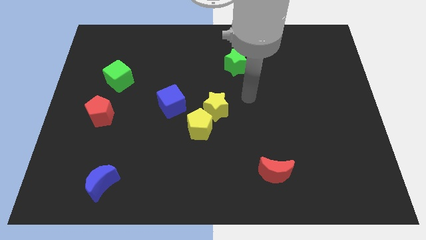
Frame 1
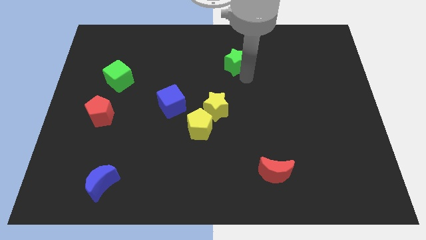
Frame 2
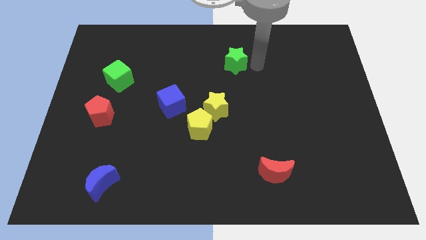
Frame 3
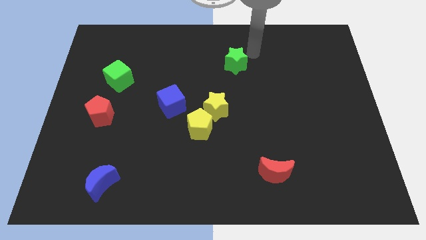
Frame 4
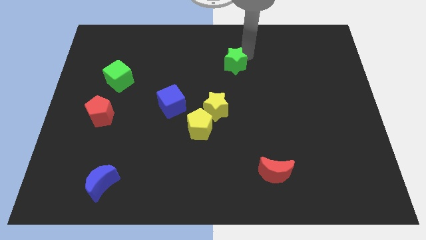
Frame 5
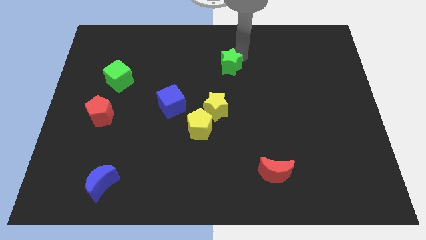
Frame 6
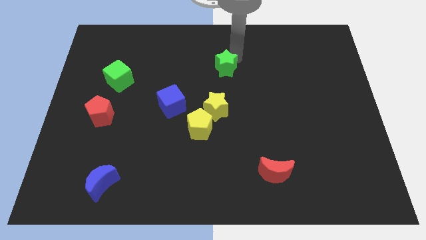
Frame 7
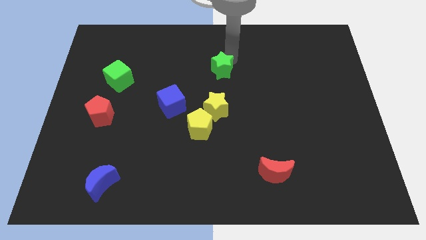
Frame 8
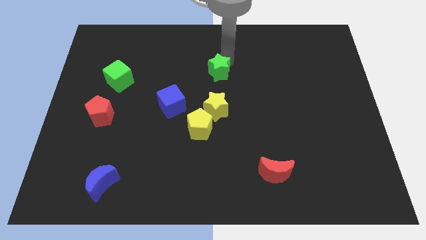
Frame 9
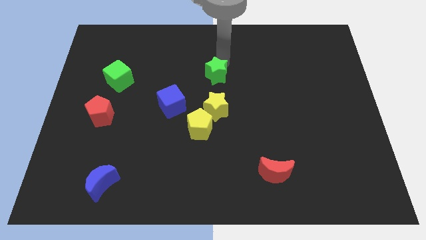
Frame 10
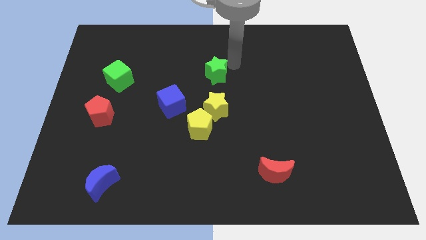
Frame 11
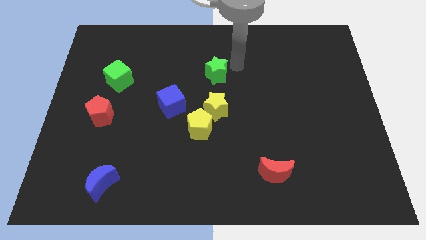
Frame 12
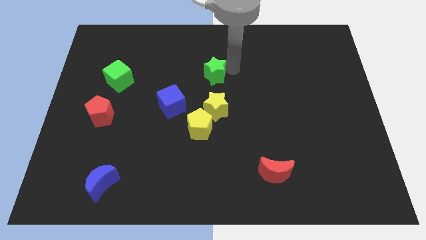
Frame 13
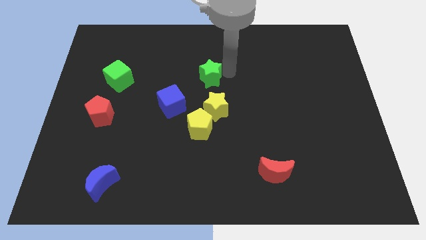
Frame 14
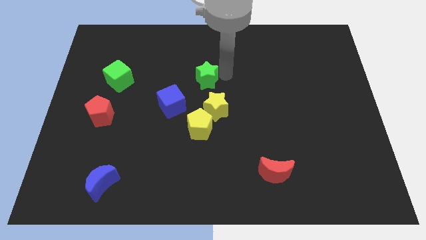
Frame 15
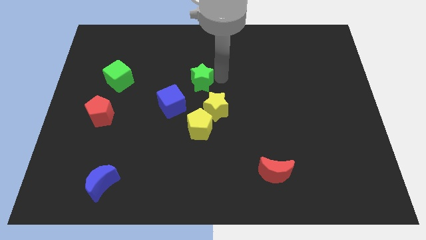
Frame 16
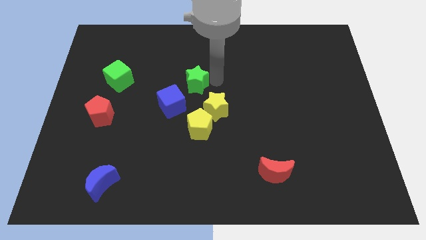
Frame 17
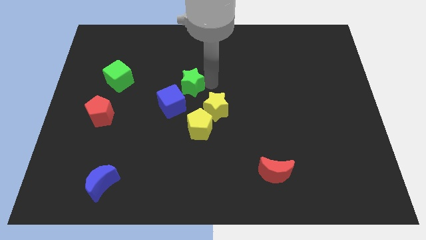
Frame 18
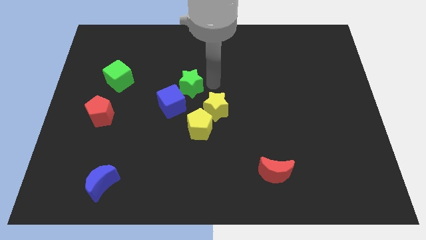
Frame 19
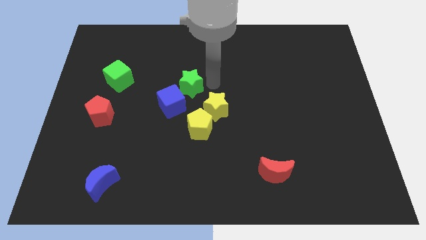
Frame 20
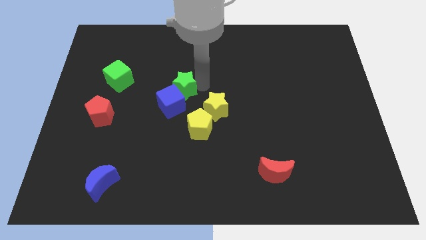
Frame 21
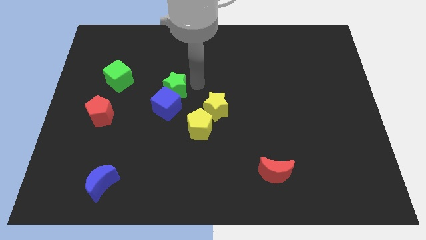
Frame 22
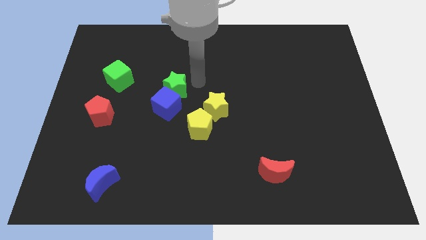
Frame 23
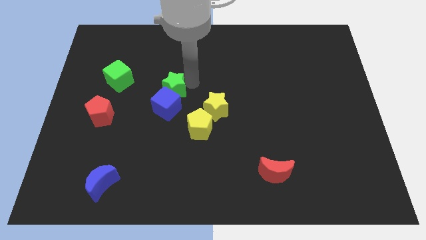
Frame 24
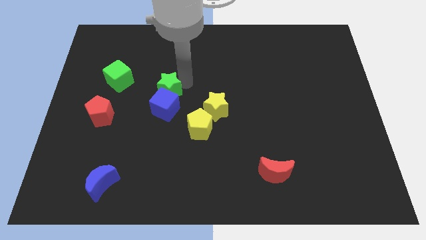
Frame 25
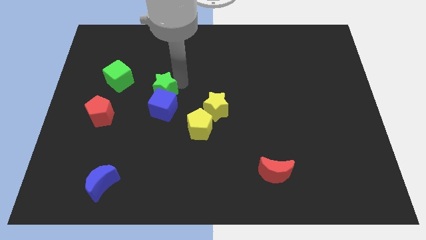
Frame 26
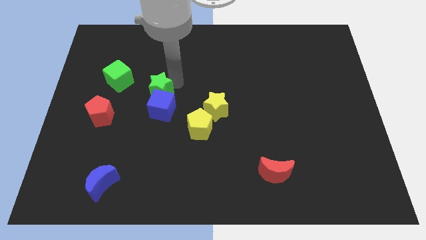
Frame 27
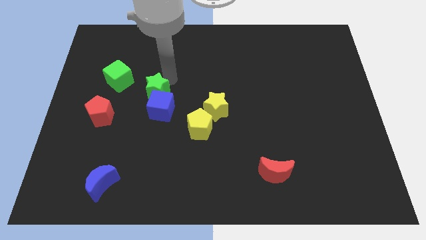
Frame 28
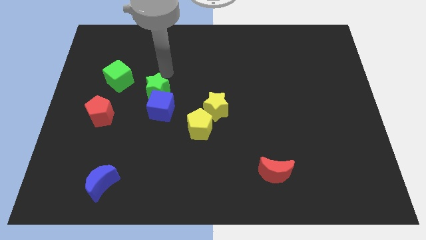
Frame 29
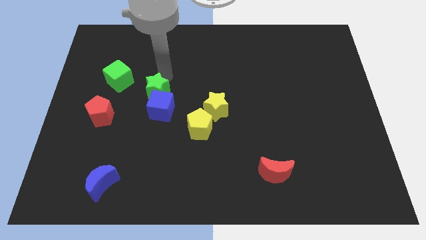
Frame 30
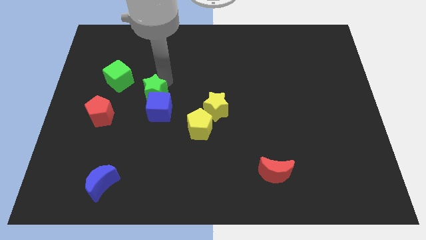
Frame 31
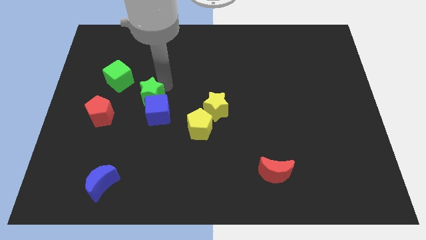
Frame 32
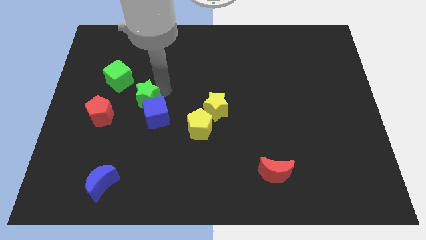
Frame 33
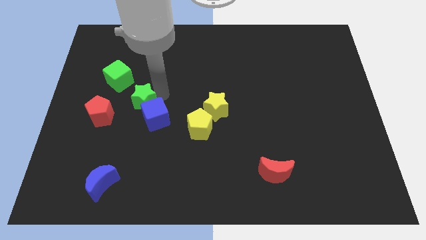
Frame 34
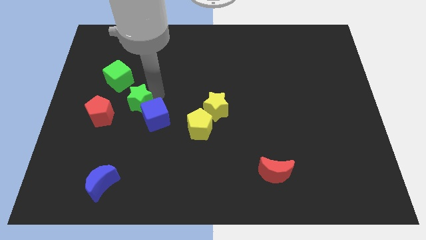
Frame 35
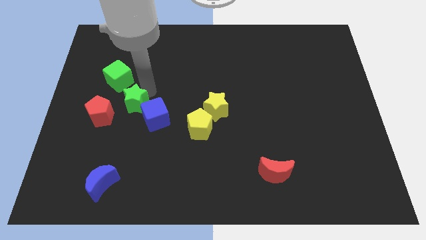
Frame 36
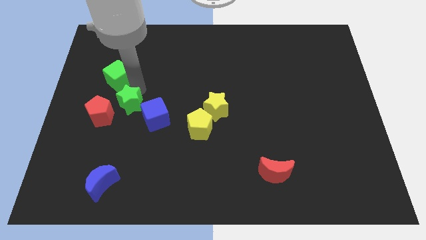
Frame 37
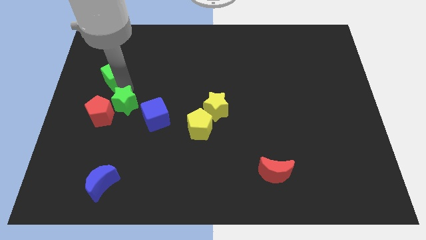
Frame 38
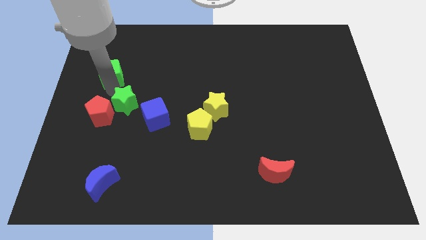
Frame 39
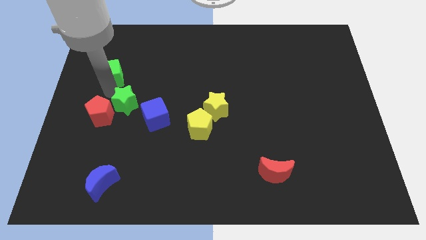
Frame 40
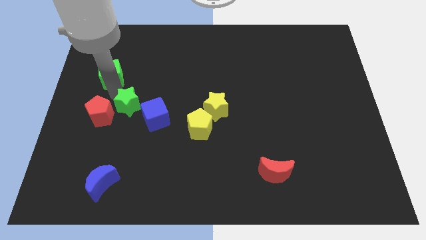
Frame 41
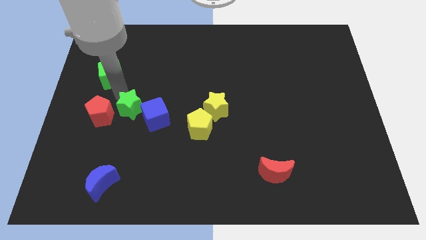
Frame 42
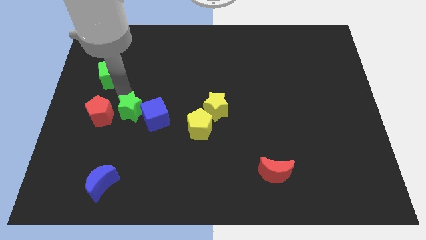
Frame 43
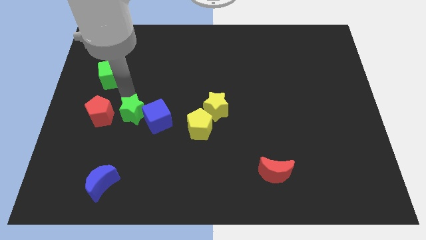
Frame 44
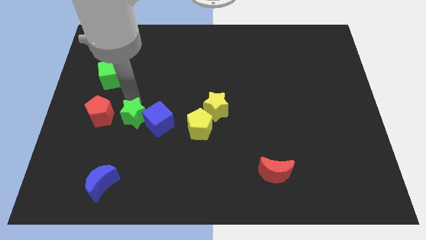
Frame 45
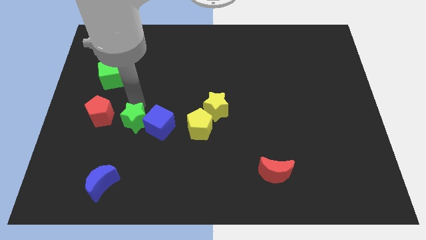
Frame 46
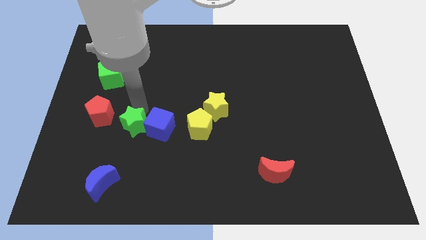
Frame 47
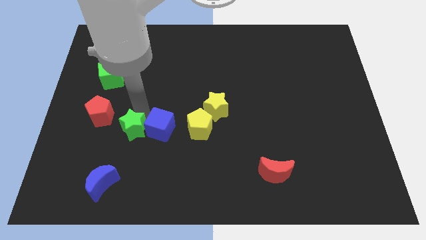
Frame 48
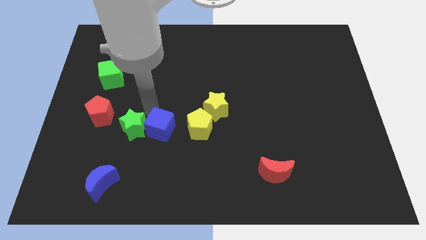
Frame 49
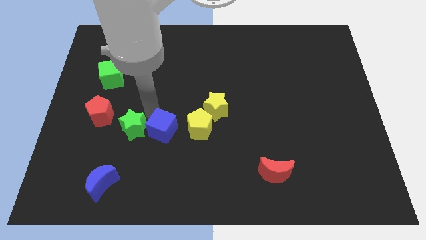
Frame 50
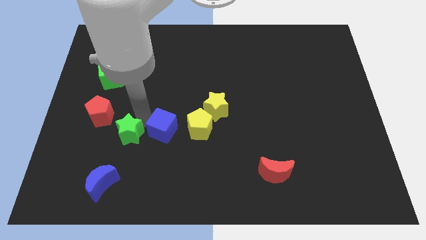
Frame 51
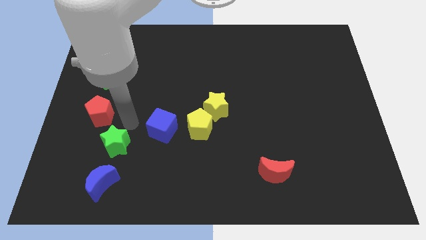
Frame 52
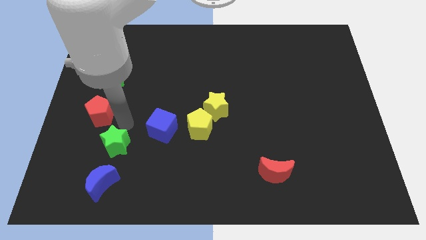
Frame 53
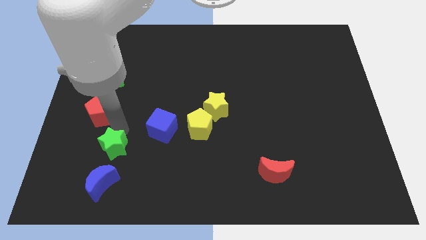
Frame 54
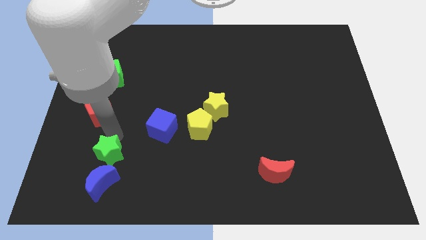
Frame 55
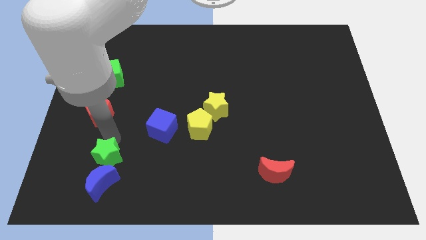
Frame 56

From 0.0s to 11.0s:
push the green star to the blue moon

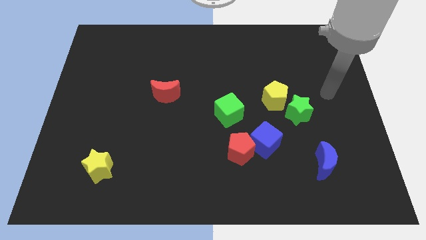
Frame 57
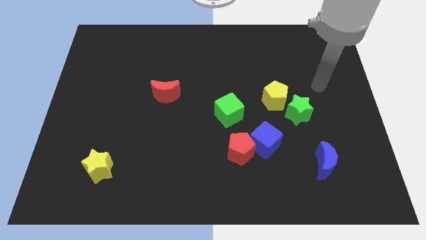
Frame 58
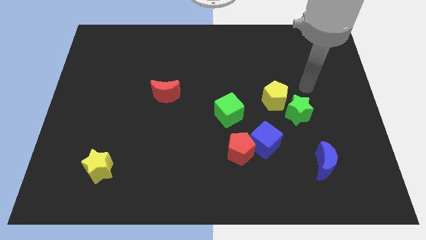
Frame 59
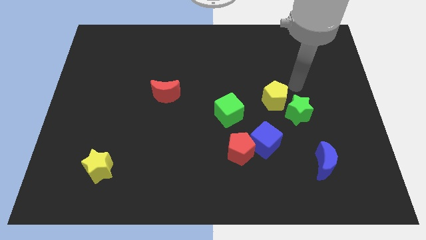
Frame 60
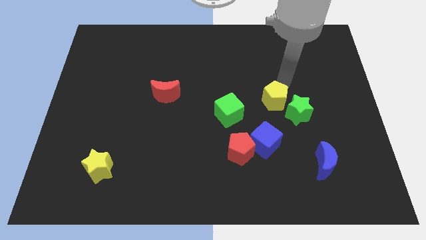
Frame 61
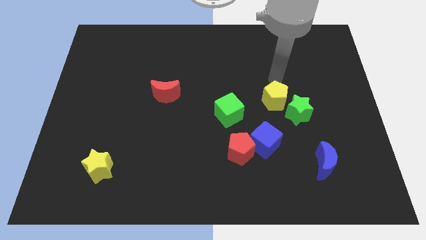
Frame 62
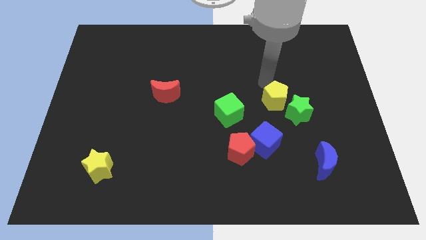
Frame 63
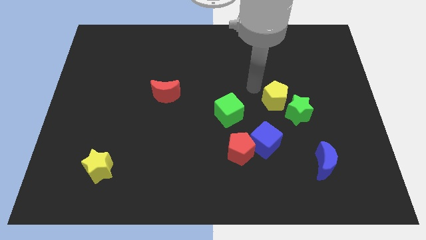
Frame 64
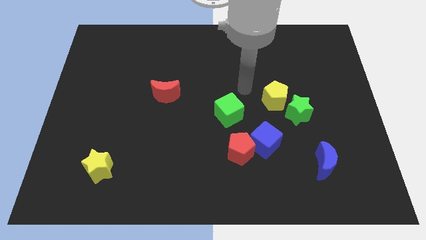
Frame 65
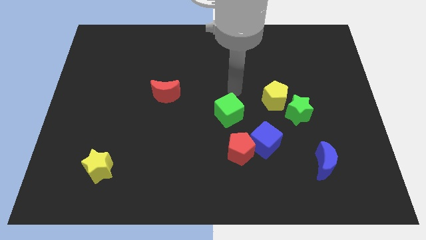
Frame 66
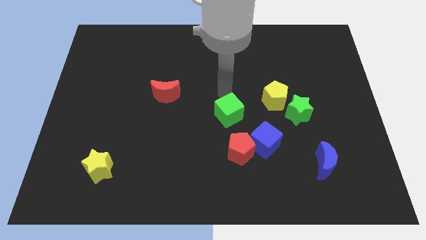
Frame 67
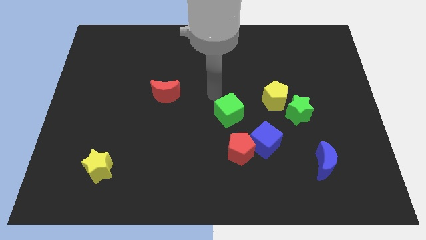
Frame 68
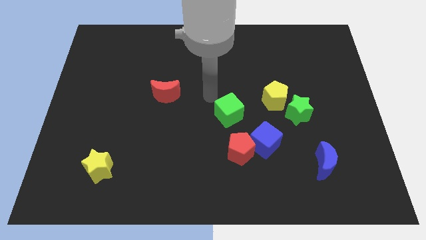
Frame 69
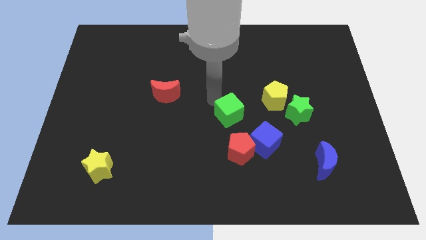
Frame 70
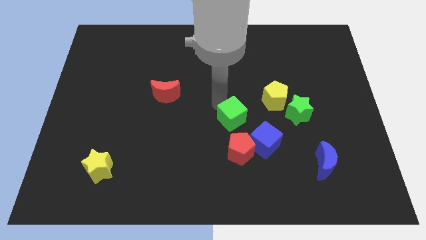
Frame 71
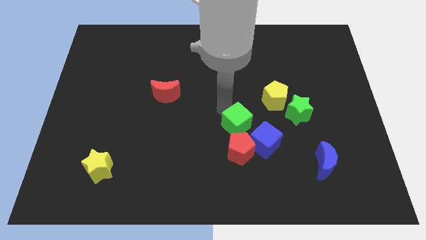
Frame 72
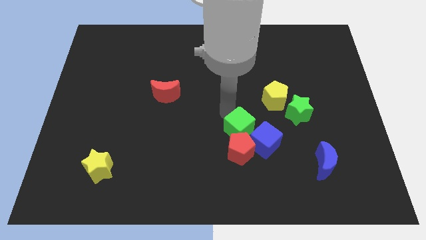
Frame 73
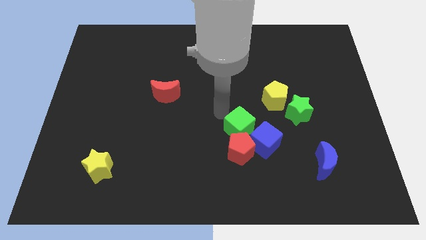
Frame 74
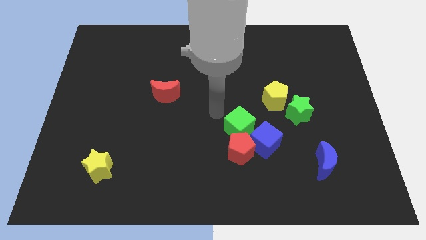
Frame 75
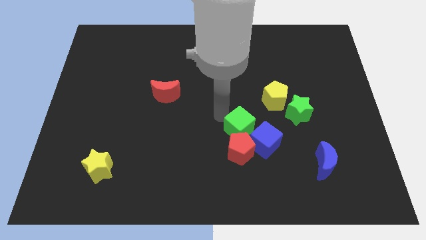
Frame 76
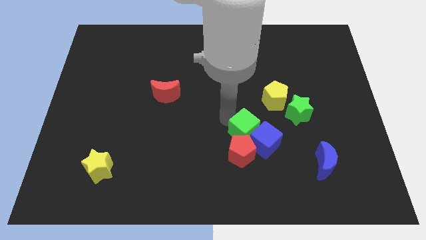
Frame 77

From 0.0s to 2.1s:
put the green cube towards the blue cube
